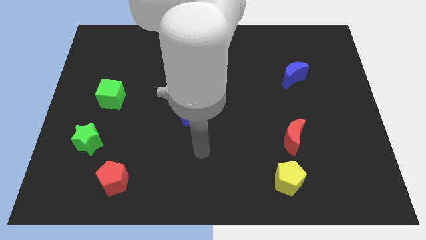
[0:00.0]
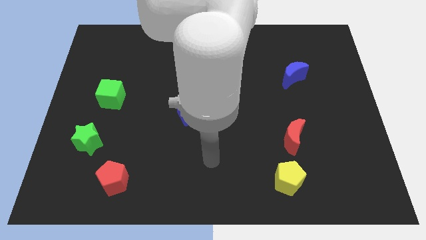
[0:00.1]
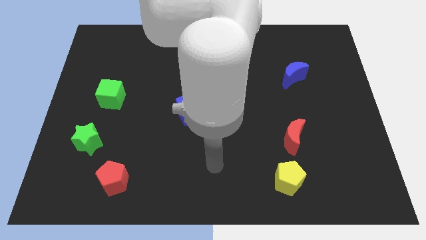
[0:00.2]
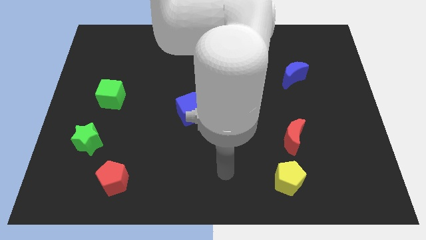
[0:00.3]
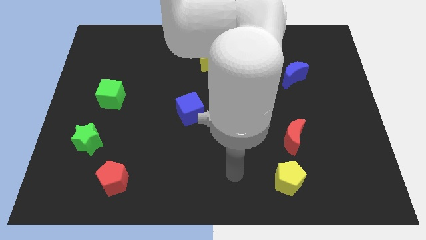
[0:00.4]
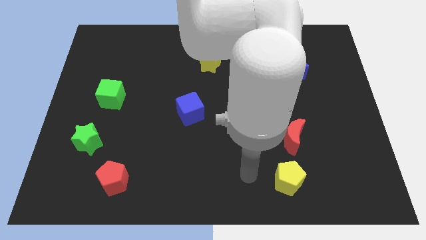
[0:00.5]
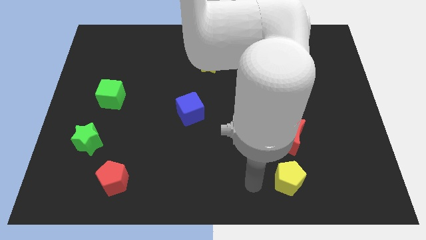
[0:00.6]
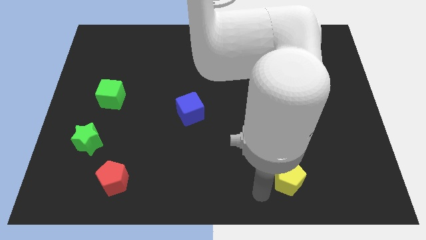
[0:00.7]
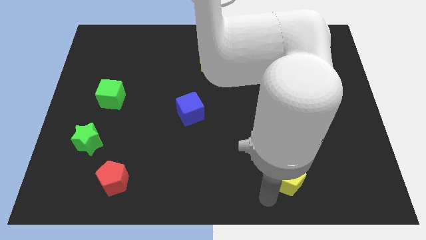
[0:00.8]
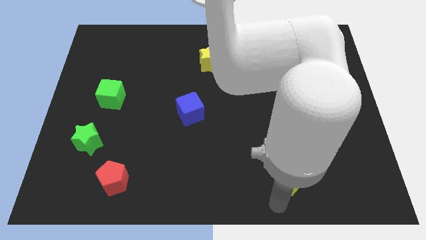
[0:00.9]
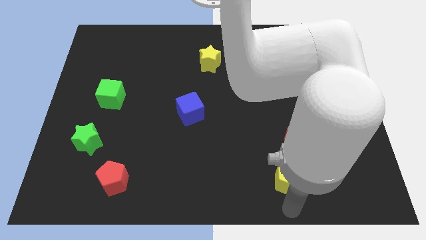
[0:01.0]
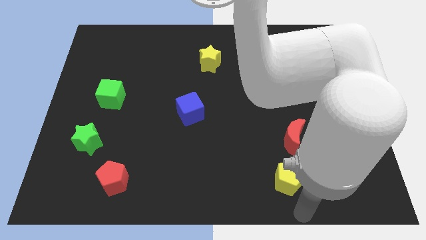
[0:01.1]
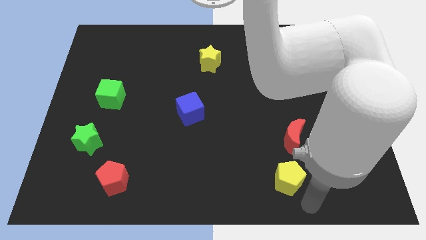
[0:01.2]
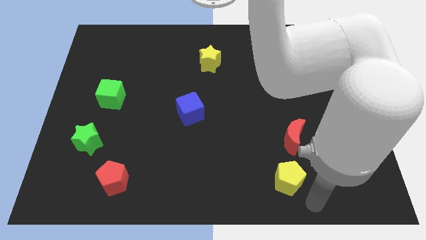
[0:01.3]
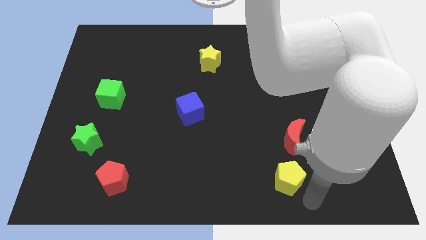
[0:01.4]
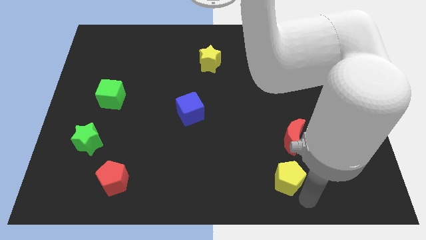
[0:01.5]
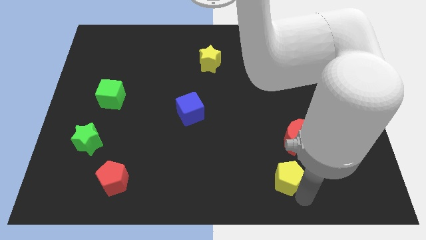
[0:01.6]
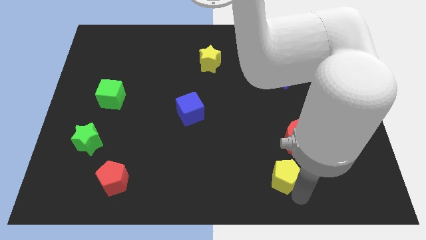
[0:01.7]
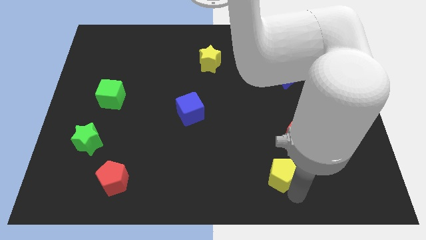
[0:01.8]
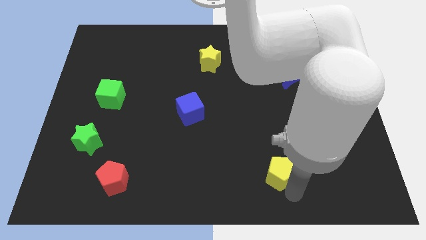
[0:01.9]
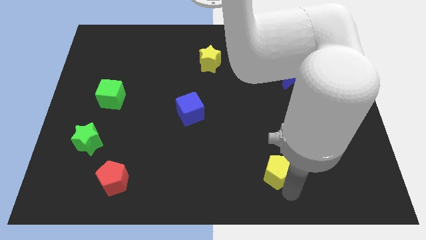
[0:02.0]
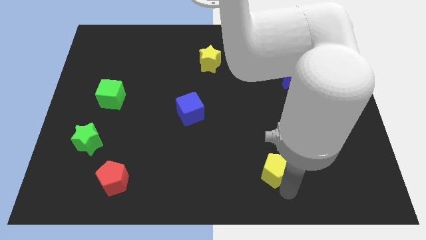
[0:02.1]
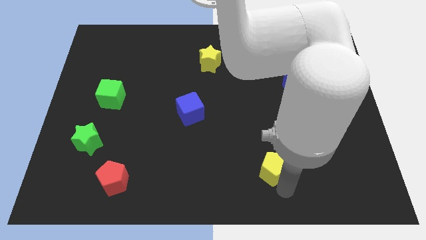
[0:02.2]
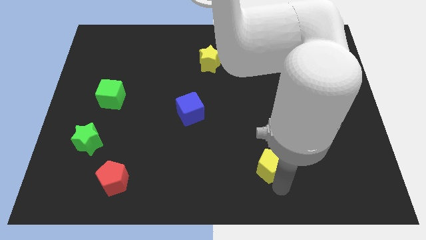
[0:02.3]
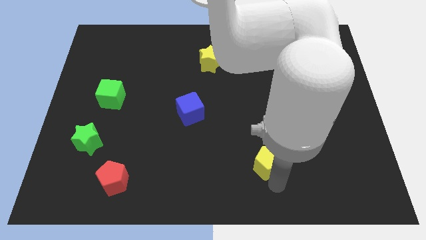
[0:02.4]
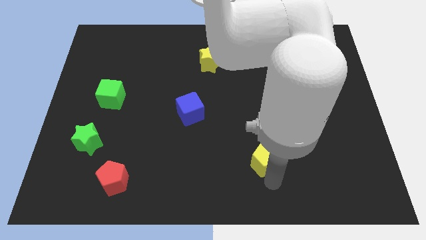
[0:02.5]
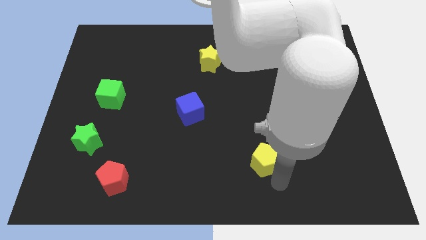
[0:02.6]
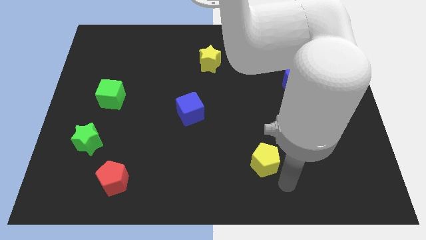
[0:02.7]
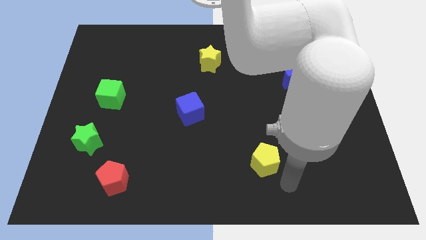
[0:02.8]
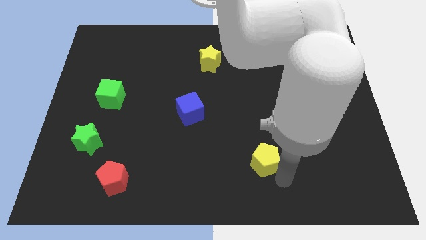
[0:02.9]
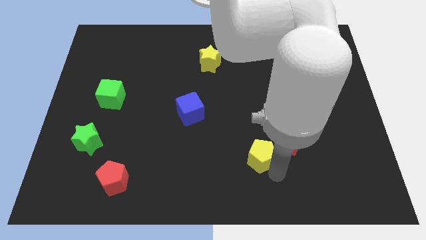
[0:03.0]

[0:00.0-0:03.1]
move the yellow pentagon diagonally upwards and to the left slightly

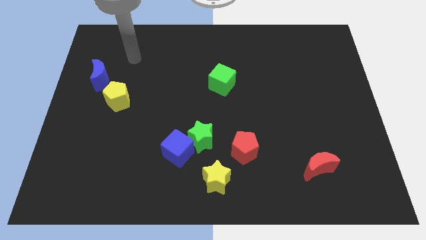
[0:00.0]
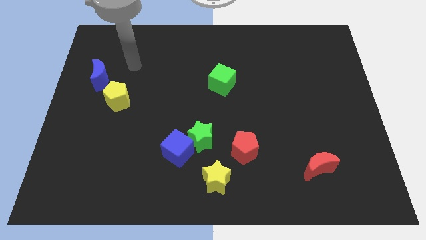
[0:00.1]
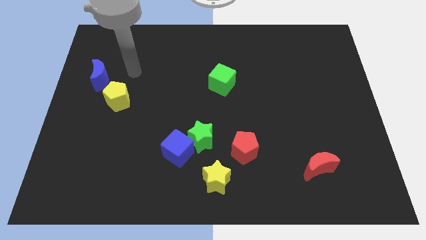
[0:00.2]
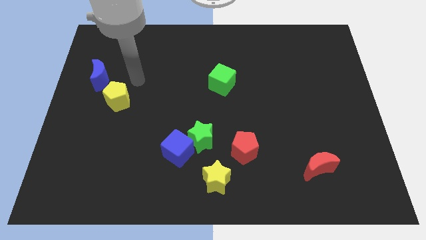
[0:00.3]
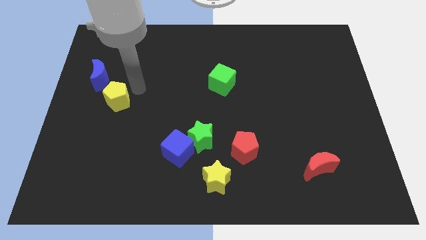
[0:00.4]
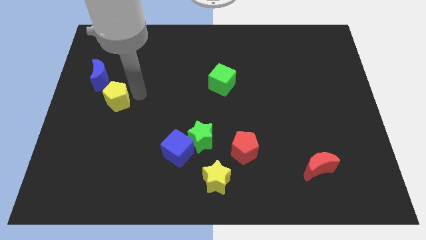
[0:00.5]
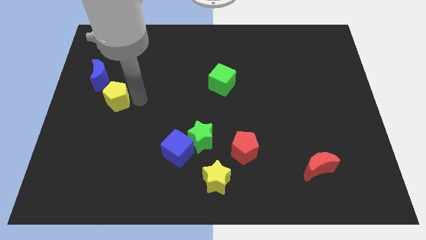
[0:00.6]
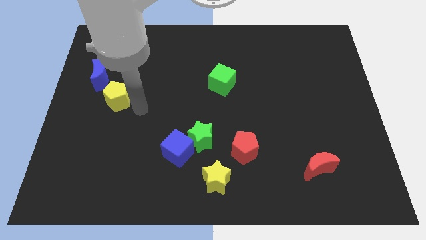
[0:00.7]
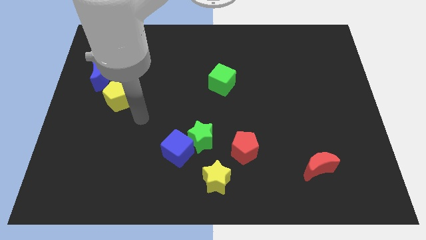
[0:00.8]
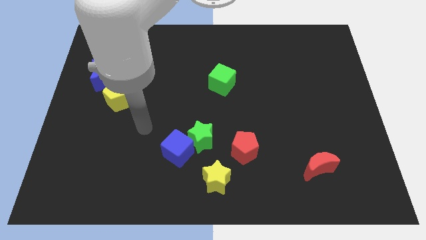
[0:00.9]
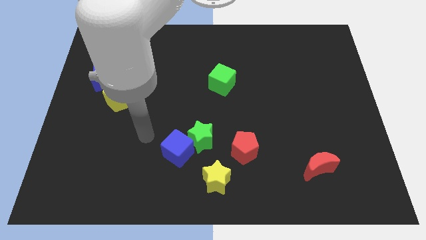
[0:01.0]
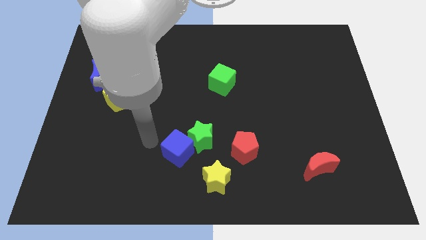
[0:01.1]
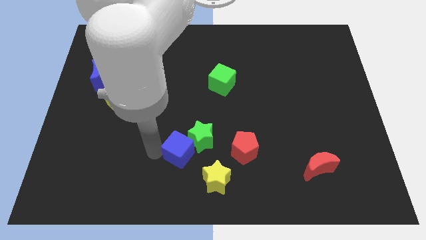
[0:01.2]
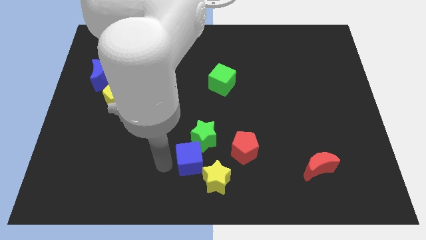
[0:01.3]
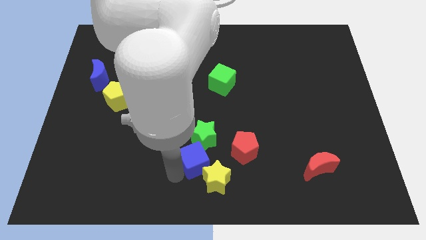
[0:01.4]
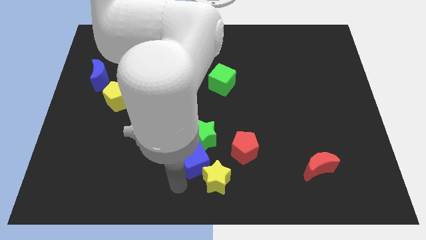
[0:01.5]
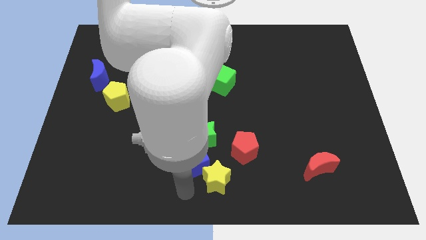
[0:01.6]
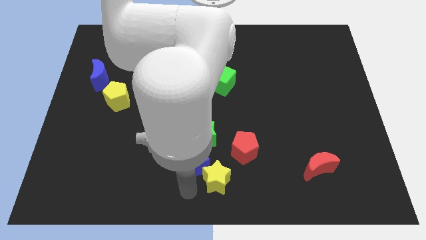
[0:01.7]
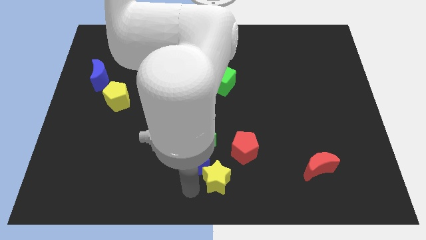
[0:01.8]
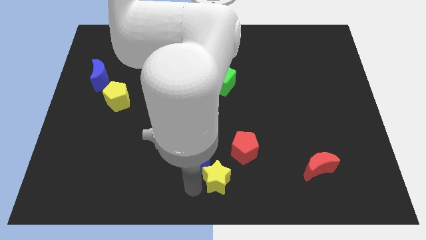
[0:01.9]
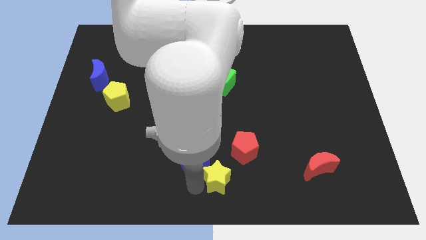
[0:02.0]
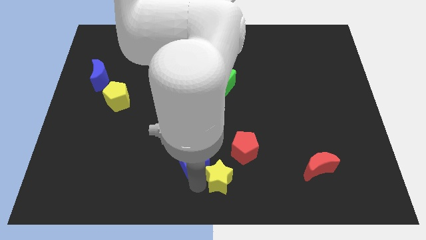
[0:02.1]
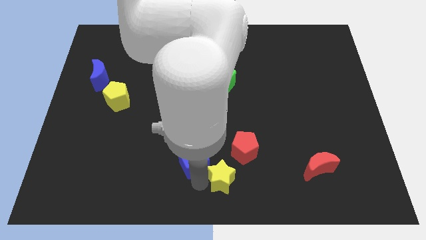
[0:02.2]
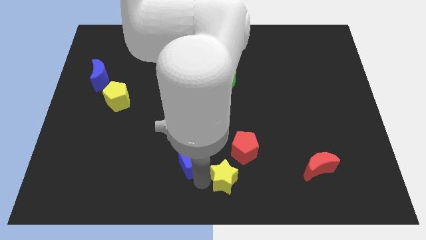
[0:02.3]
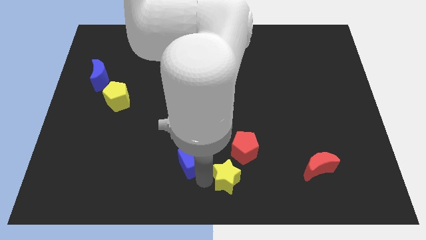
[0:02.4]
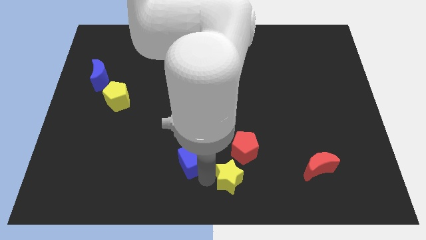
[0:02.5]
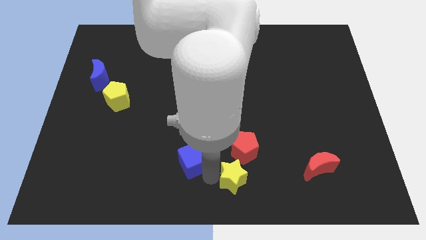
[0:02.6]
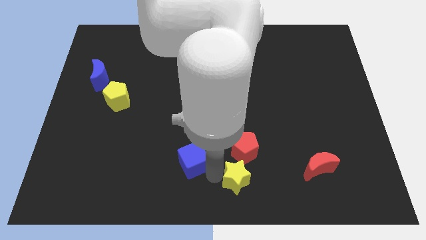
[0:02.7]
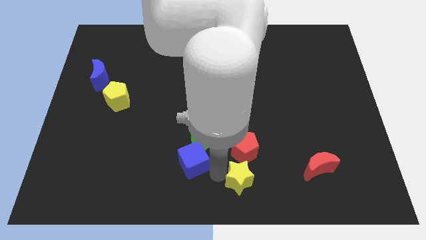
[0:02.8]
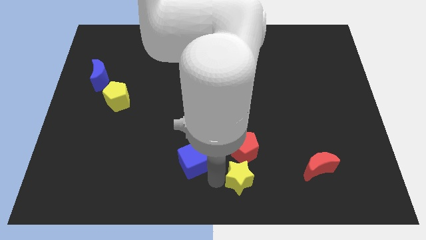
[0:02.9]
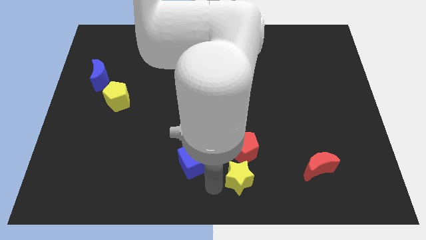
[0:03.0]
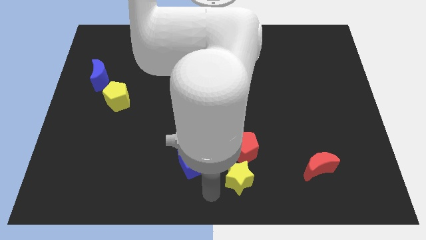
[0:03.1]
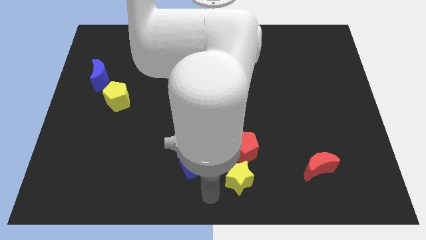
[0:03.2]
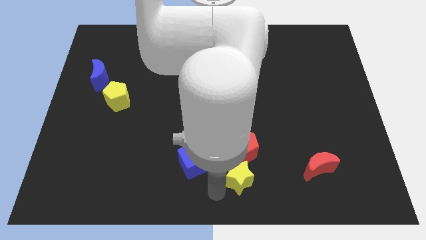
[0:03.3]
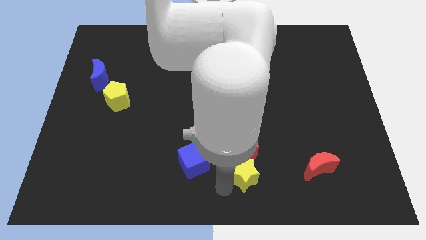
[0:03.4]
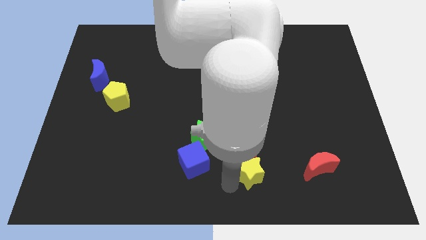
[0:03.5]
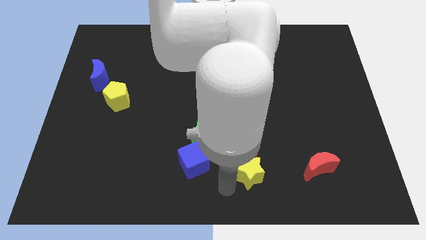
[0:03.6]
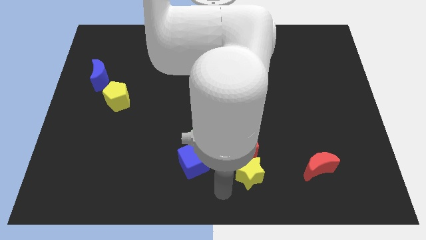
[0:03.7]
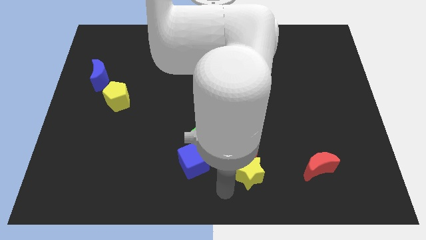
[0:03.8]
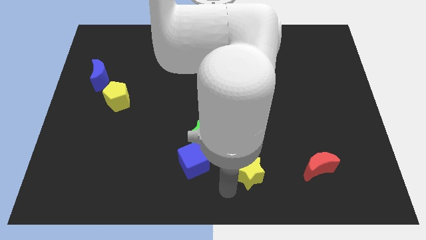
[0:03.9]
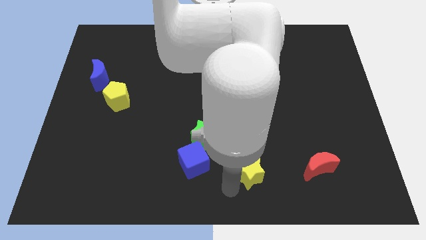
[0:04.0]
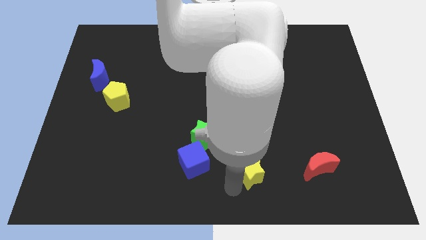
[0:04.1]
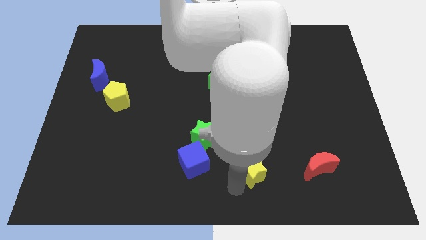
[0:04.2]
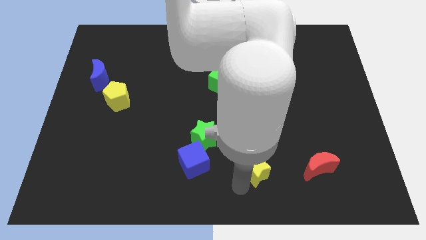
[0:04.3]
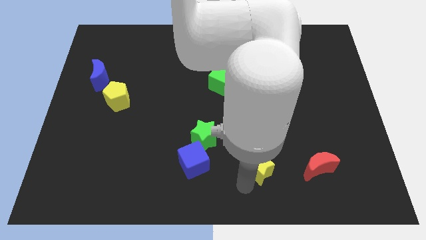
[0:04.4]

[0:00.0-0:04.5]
slightly push the yellow star upwards and right diagonally

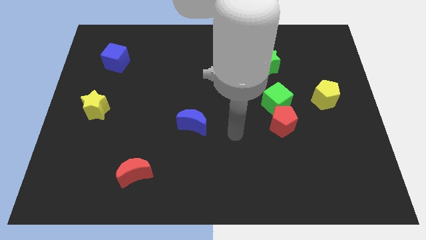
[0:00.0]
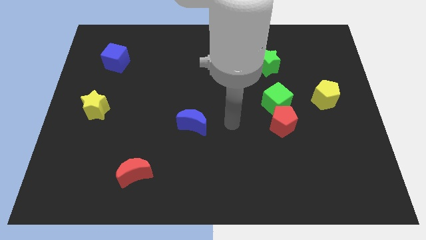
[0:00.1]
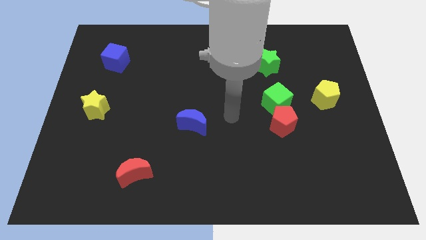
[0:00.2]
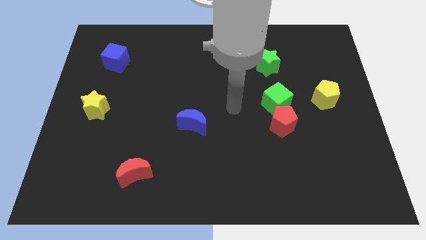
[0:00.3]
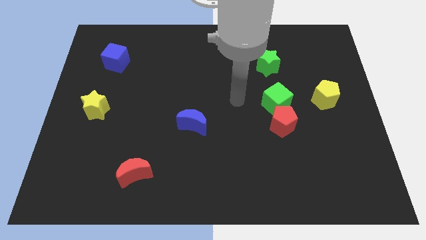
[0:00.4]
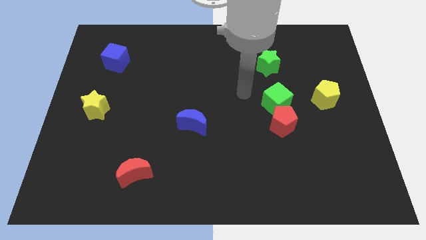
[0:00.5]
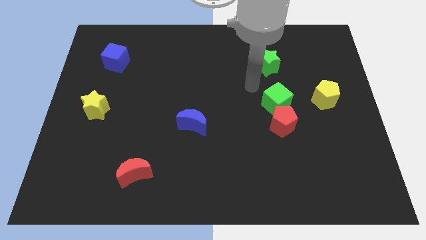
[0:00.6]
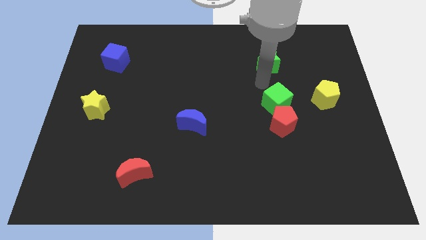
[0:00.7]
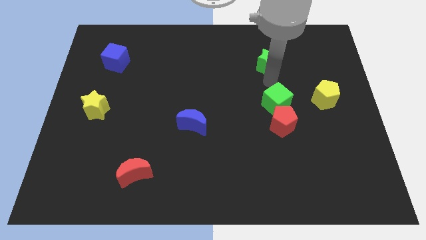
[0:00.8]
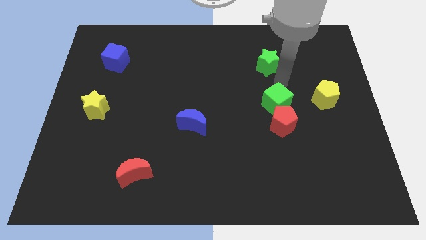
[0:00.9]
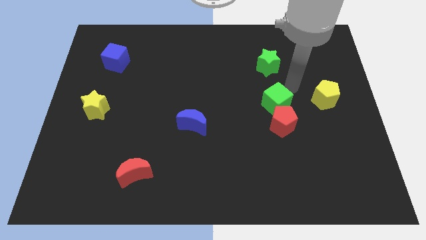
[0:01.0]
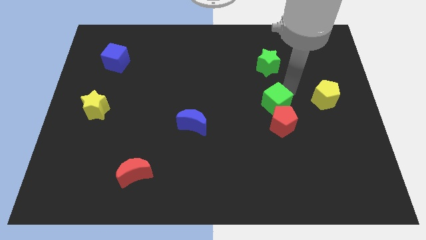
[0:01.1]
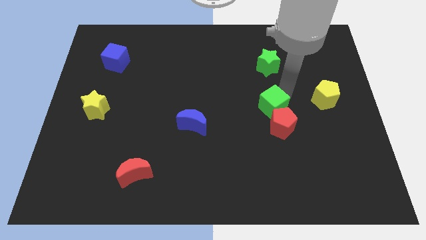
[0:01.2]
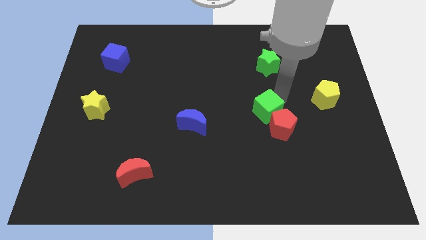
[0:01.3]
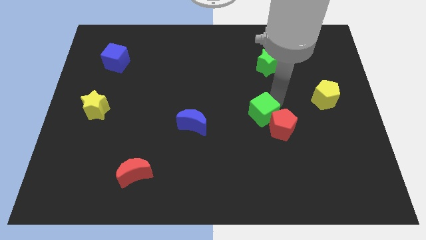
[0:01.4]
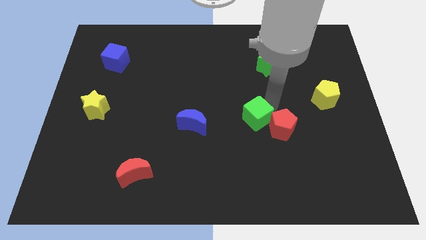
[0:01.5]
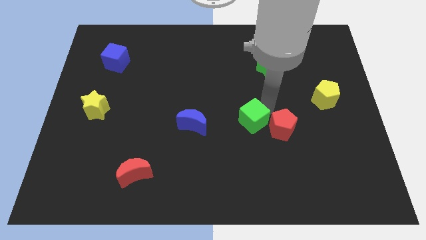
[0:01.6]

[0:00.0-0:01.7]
slightly move the green cube downwards and to the left diagonally
